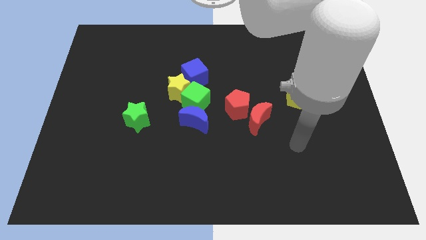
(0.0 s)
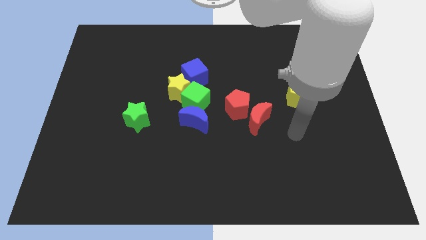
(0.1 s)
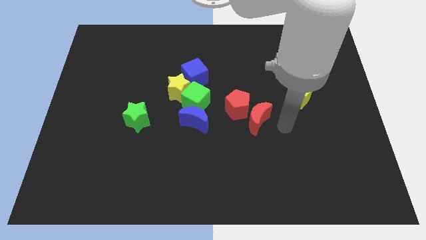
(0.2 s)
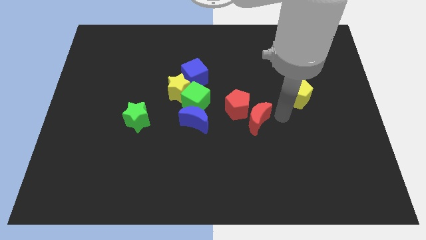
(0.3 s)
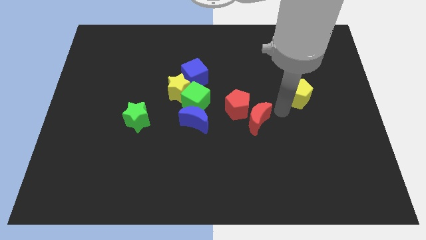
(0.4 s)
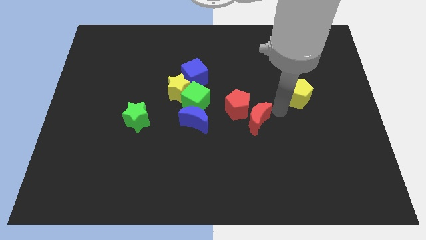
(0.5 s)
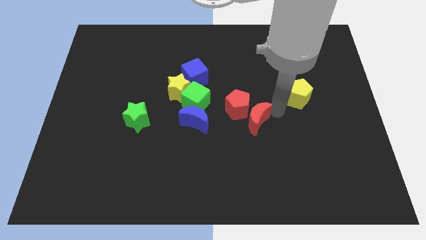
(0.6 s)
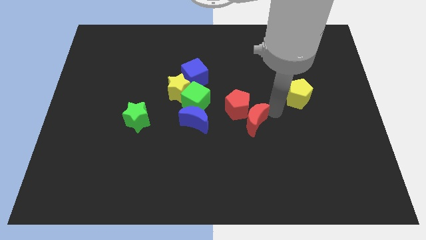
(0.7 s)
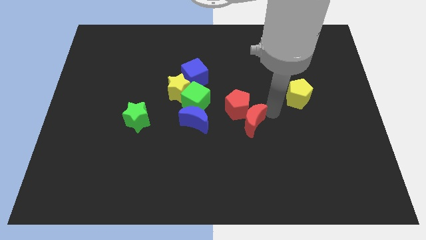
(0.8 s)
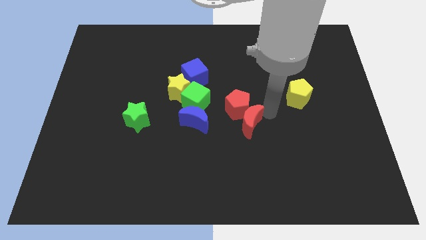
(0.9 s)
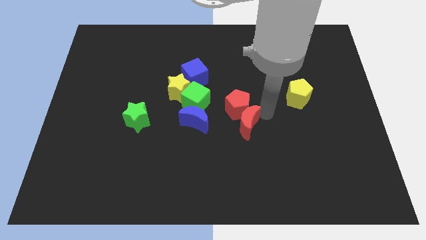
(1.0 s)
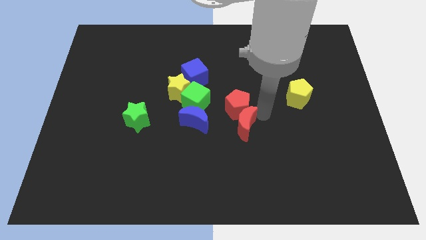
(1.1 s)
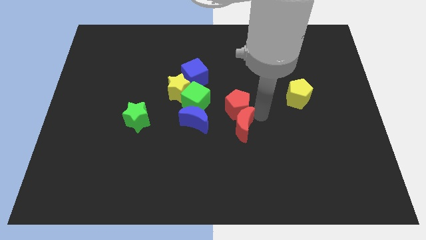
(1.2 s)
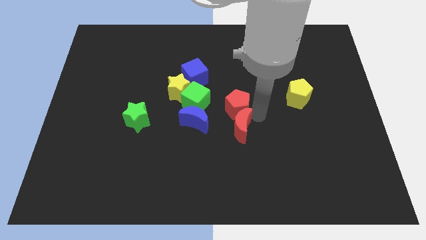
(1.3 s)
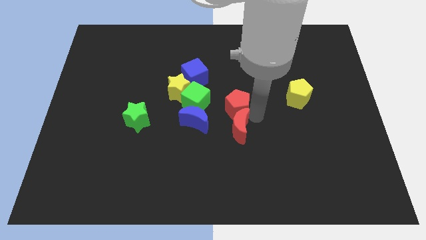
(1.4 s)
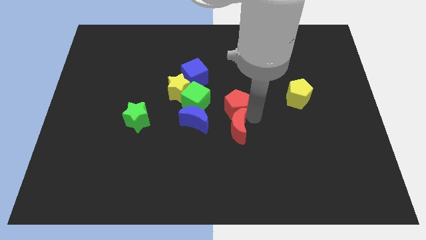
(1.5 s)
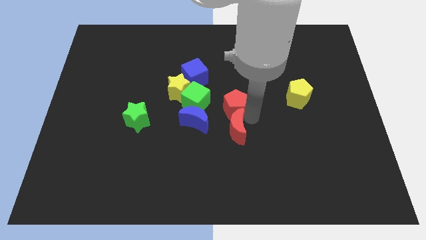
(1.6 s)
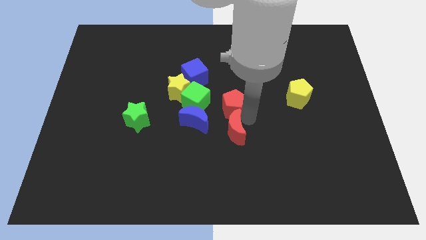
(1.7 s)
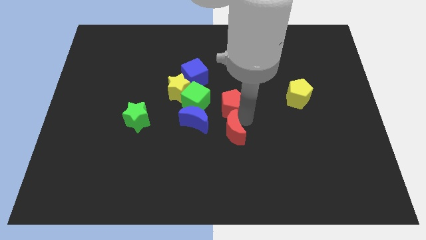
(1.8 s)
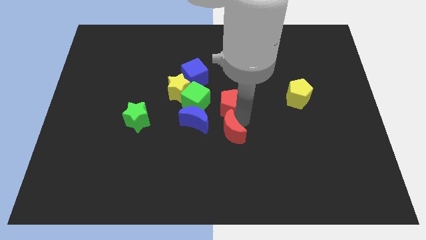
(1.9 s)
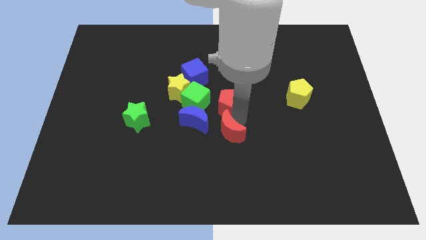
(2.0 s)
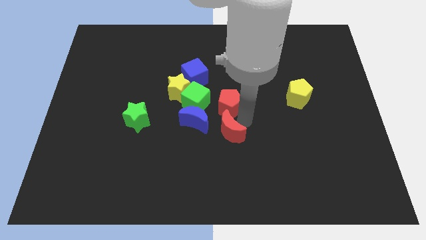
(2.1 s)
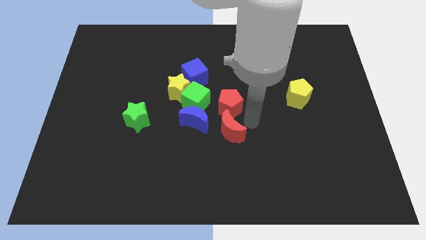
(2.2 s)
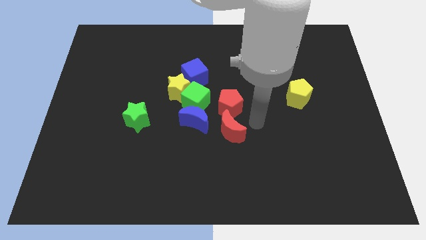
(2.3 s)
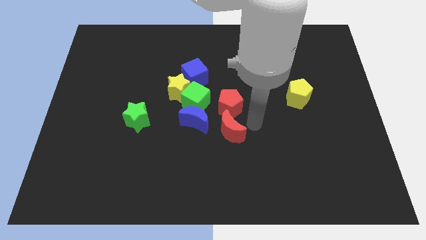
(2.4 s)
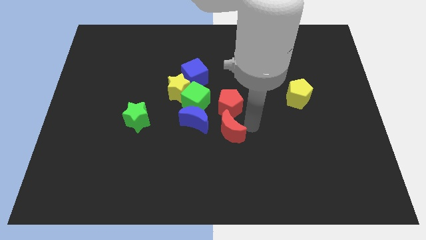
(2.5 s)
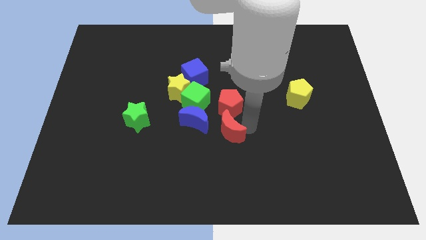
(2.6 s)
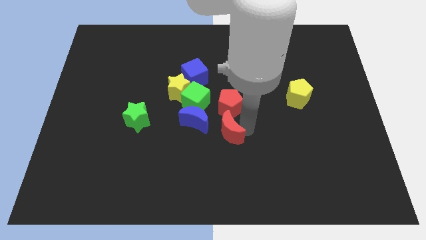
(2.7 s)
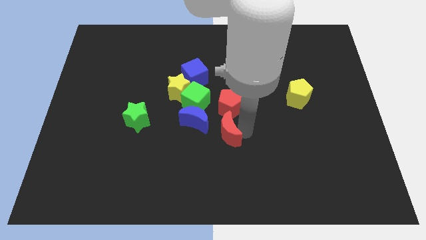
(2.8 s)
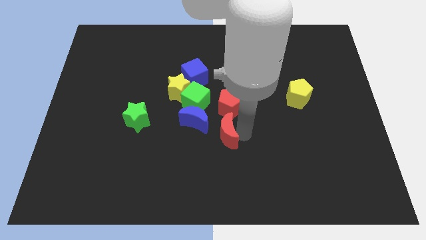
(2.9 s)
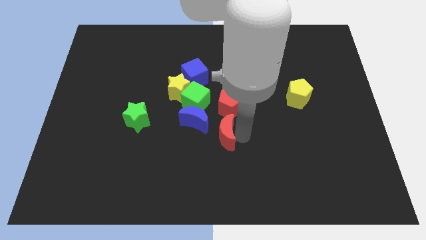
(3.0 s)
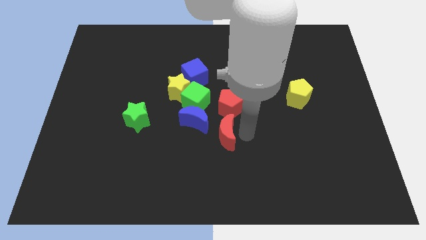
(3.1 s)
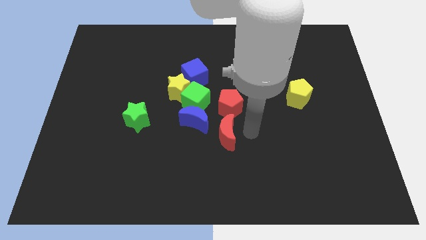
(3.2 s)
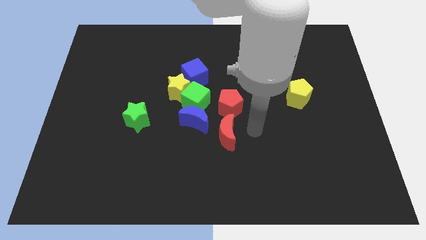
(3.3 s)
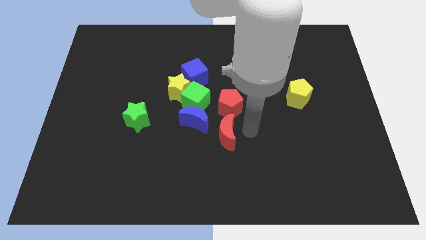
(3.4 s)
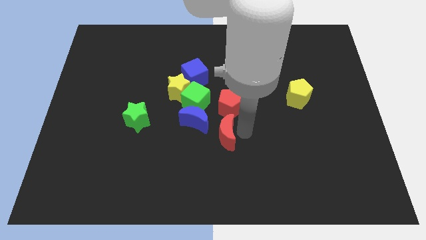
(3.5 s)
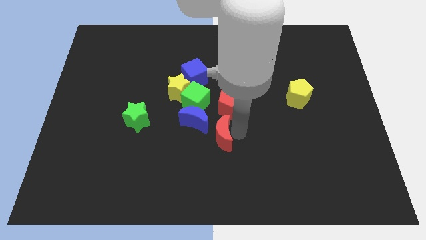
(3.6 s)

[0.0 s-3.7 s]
slide the red moon left a little bit

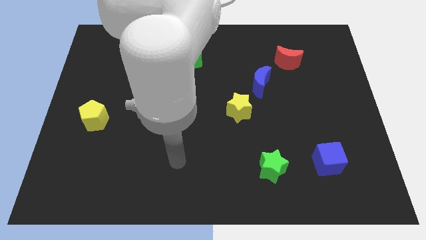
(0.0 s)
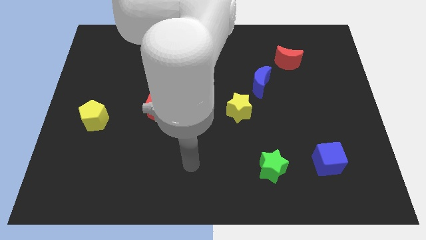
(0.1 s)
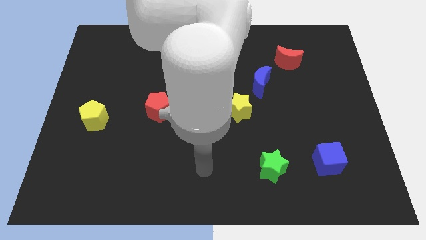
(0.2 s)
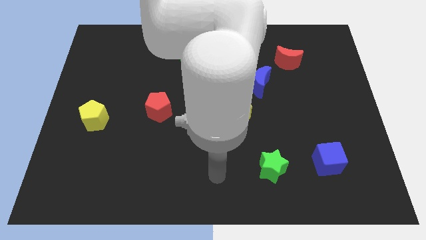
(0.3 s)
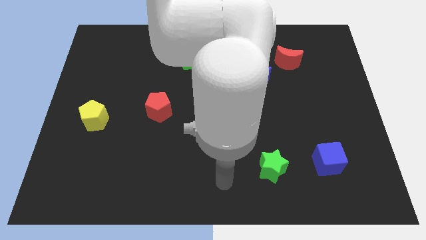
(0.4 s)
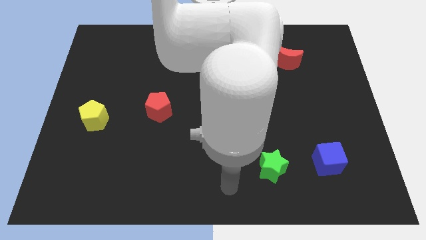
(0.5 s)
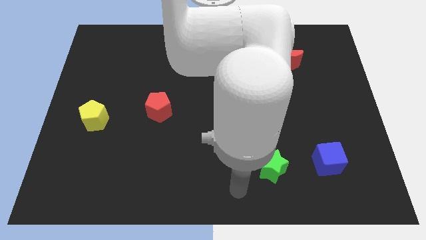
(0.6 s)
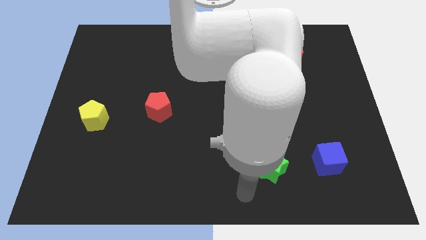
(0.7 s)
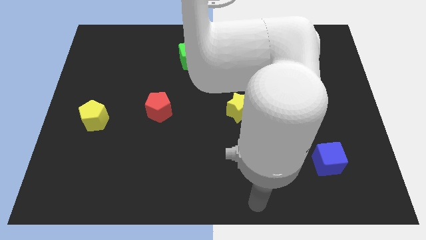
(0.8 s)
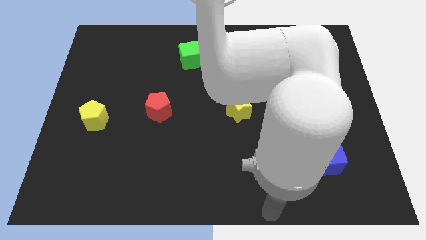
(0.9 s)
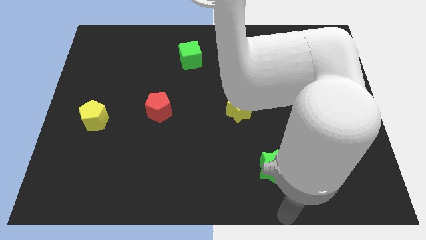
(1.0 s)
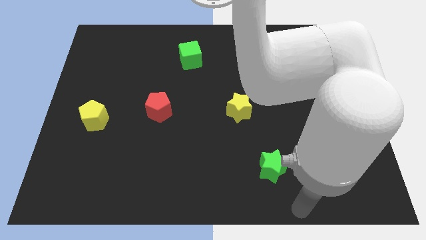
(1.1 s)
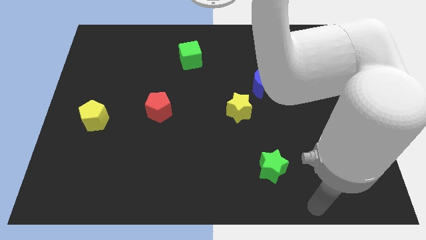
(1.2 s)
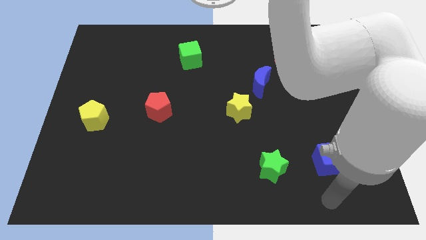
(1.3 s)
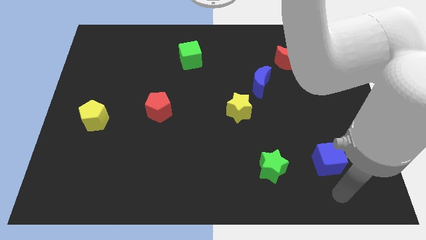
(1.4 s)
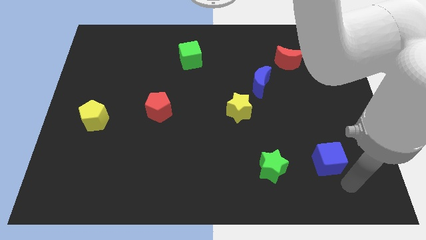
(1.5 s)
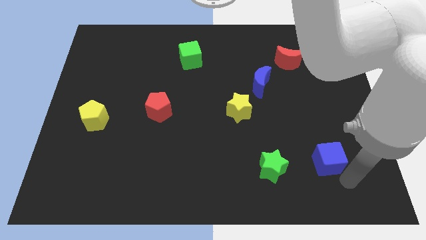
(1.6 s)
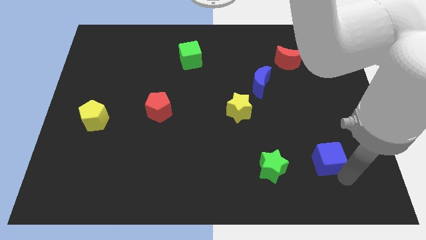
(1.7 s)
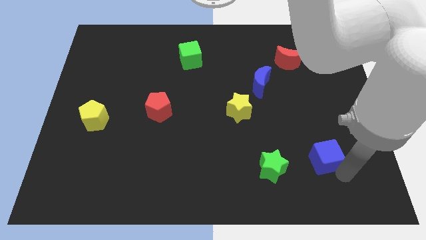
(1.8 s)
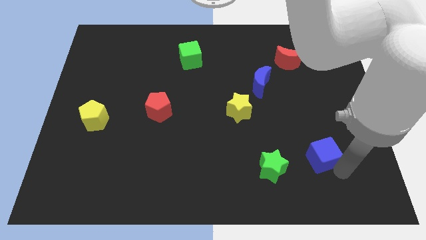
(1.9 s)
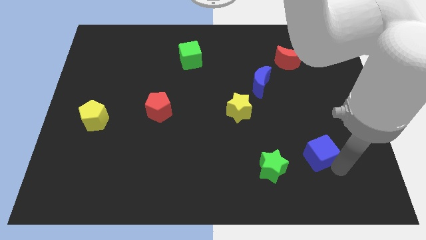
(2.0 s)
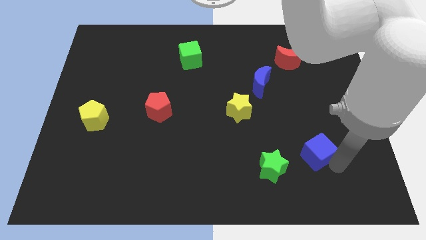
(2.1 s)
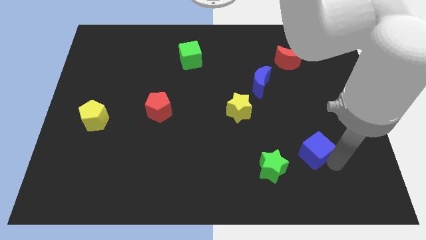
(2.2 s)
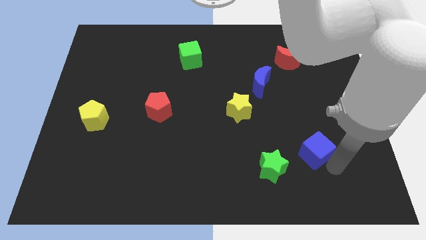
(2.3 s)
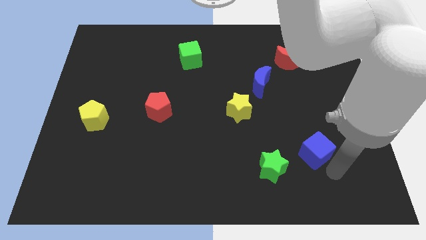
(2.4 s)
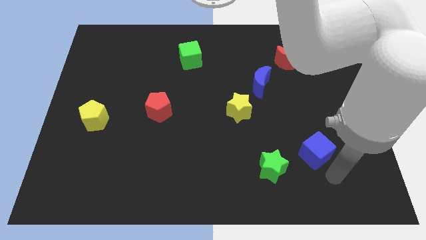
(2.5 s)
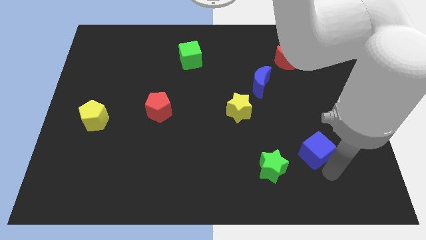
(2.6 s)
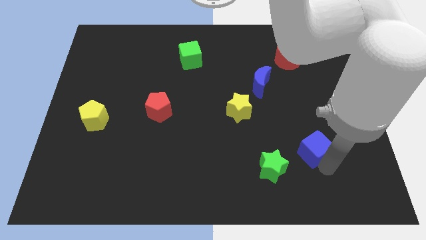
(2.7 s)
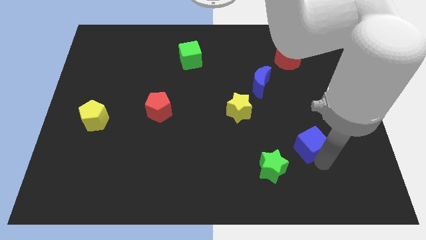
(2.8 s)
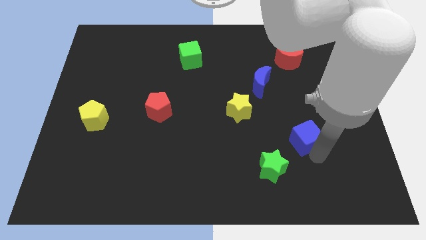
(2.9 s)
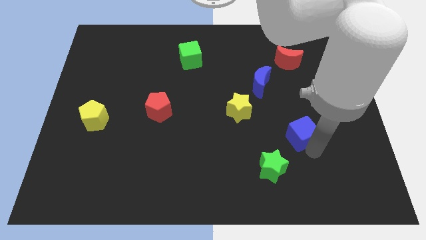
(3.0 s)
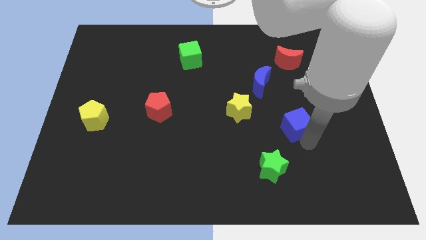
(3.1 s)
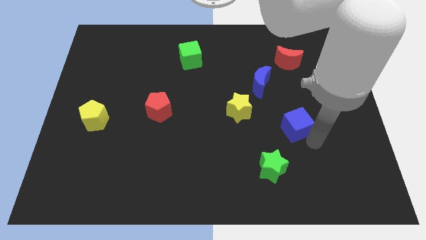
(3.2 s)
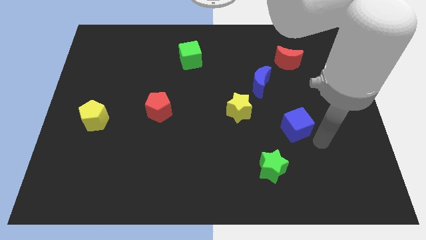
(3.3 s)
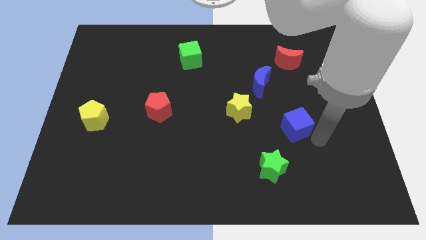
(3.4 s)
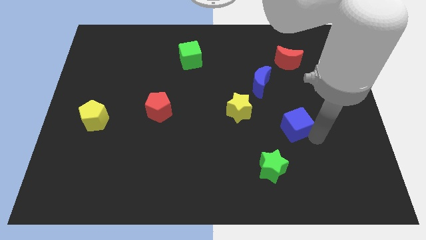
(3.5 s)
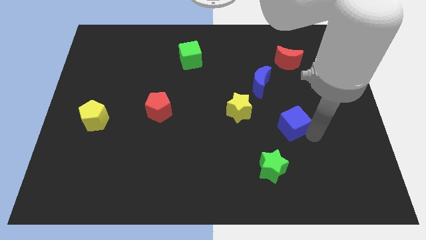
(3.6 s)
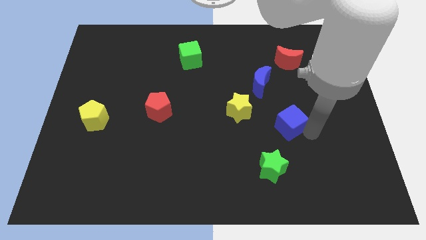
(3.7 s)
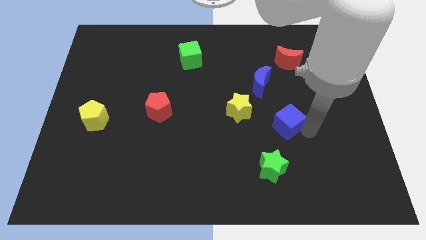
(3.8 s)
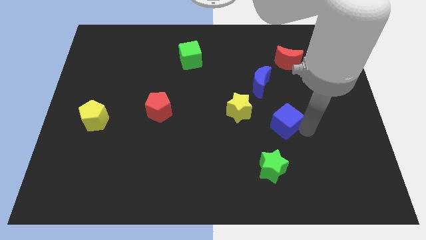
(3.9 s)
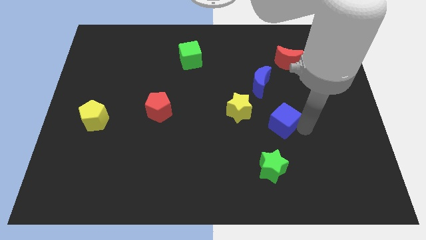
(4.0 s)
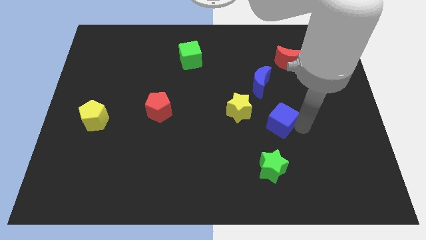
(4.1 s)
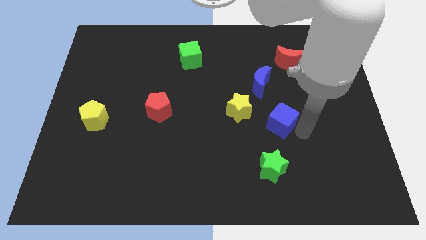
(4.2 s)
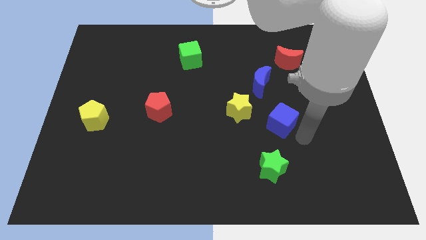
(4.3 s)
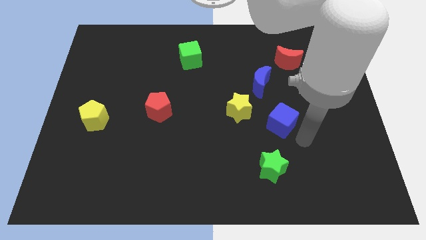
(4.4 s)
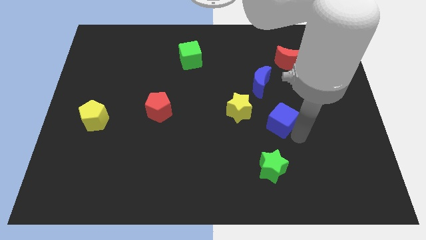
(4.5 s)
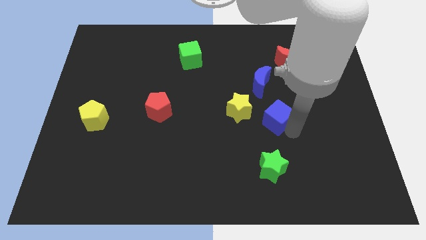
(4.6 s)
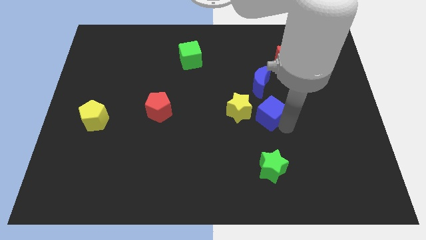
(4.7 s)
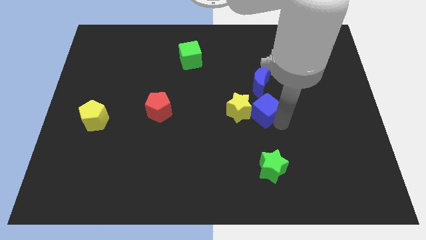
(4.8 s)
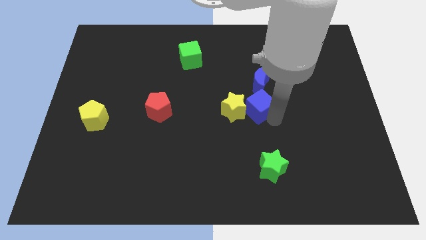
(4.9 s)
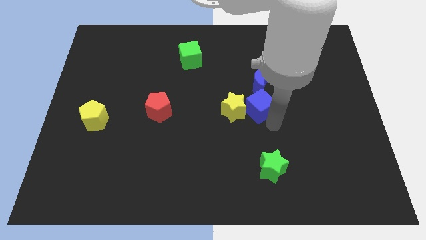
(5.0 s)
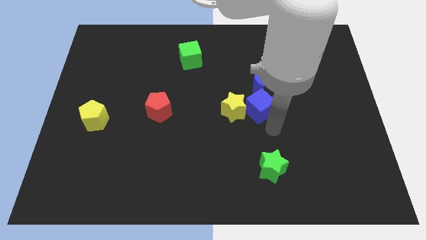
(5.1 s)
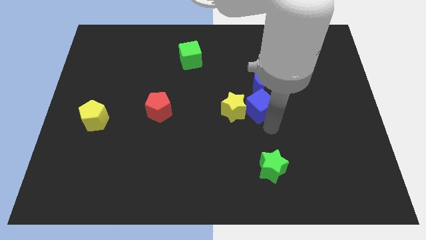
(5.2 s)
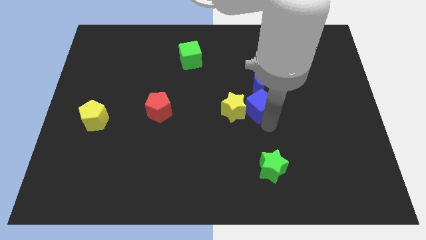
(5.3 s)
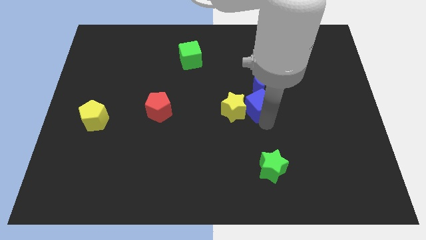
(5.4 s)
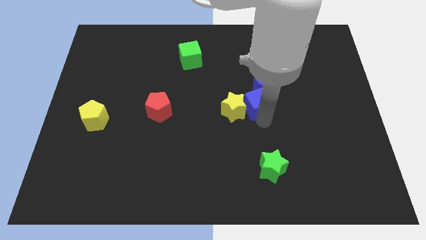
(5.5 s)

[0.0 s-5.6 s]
move the blue cube diagonally upwards and left
